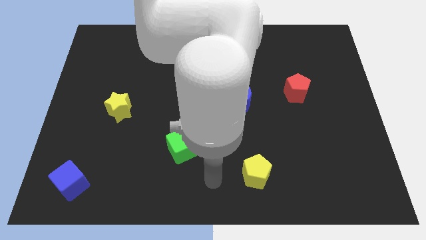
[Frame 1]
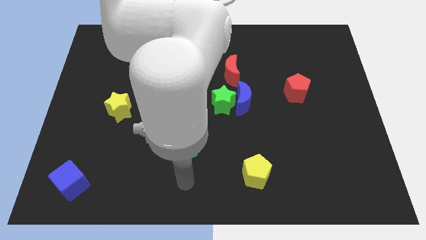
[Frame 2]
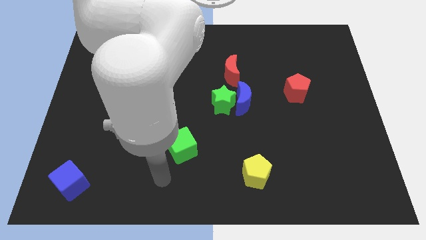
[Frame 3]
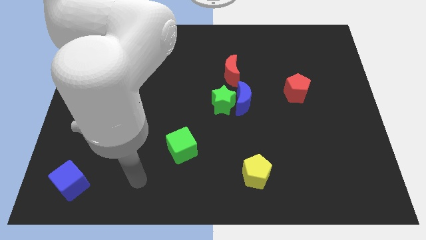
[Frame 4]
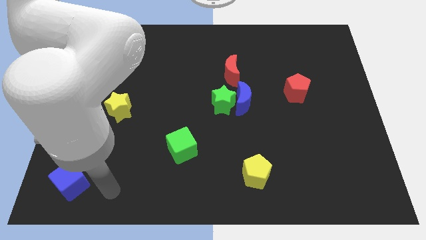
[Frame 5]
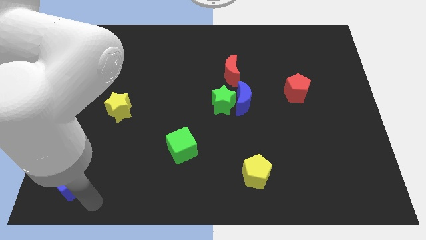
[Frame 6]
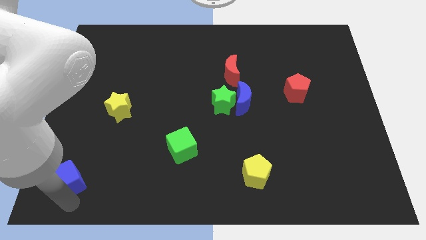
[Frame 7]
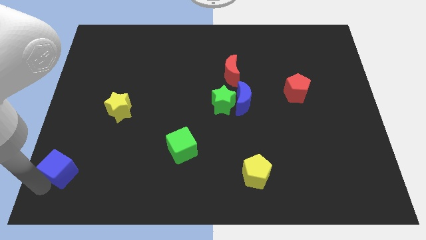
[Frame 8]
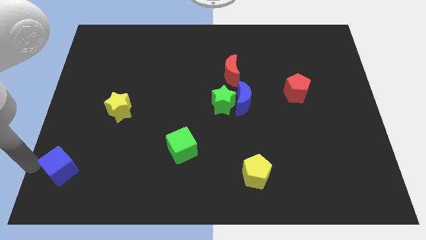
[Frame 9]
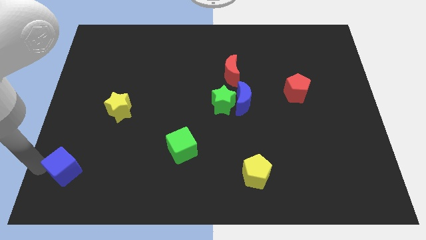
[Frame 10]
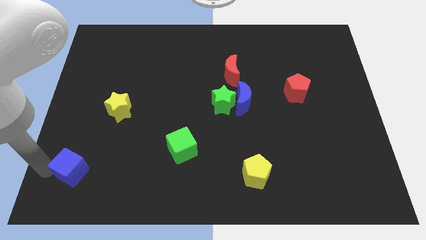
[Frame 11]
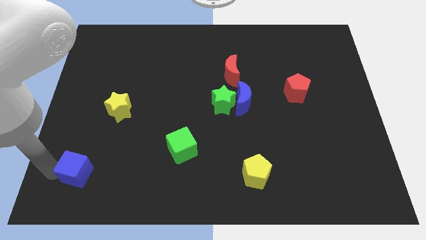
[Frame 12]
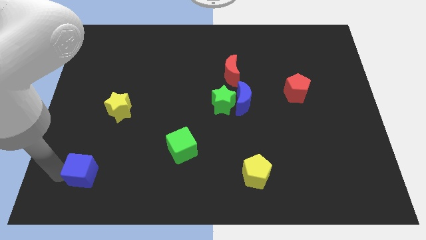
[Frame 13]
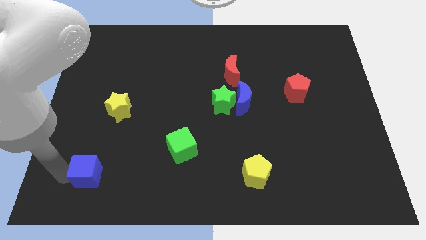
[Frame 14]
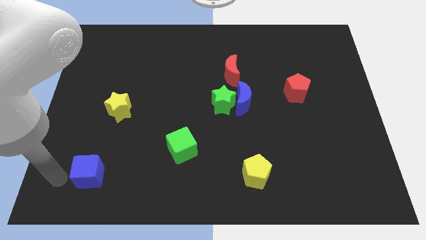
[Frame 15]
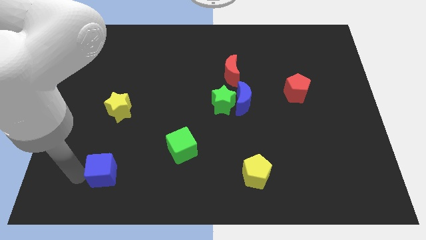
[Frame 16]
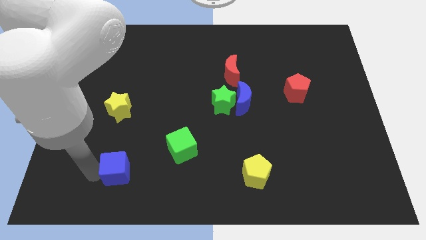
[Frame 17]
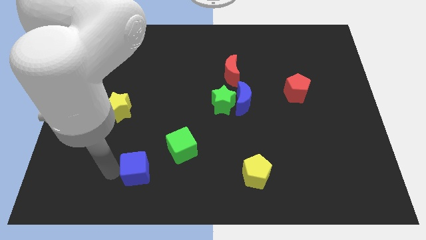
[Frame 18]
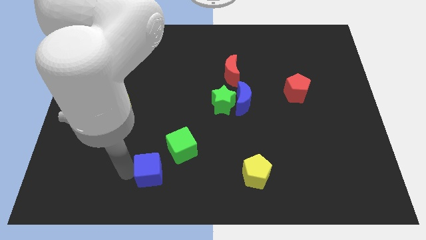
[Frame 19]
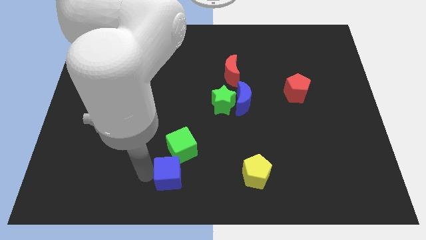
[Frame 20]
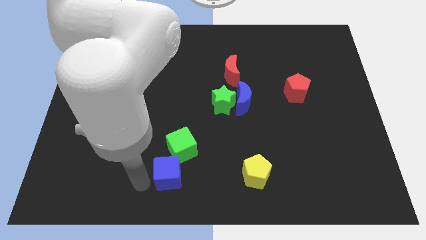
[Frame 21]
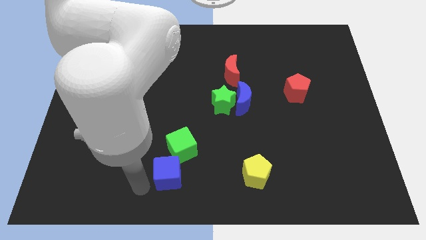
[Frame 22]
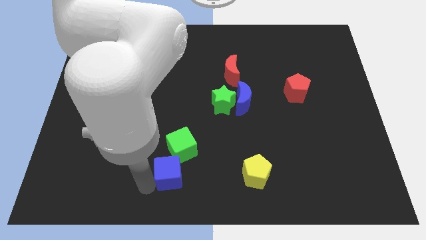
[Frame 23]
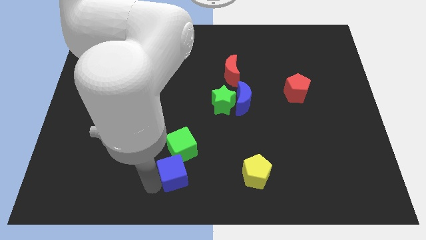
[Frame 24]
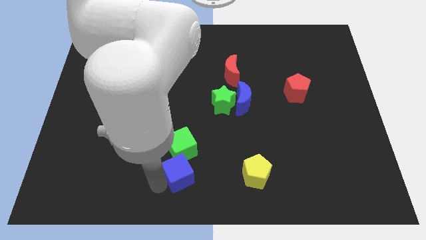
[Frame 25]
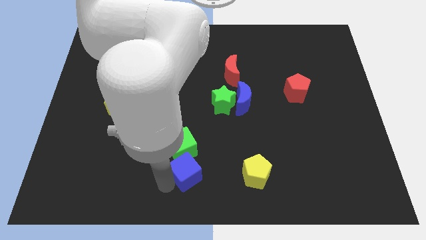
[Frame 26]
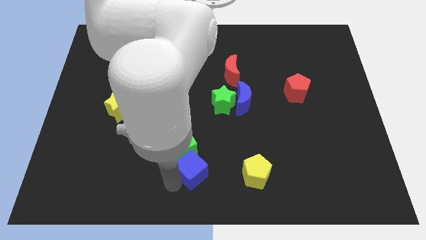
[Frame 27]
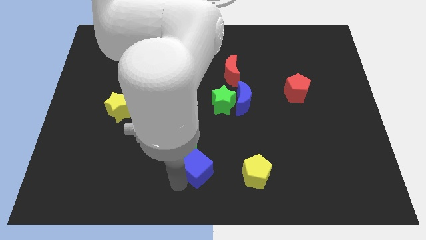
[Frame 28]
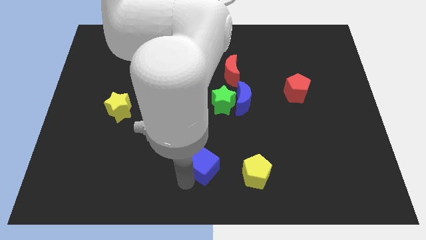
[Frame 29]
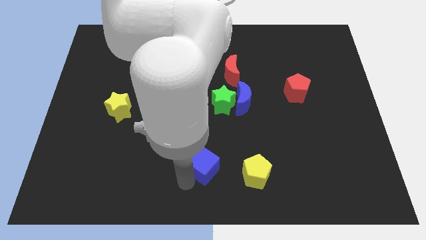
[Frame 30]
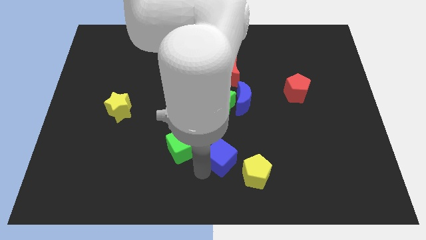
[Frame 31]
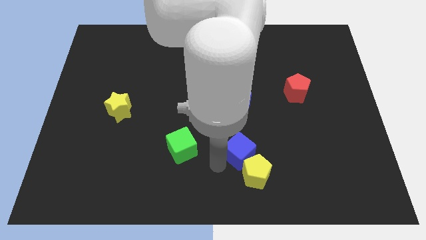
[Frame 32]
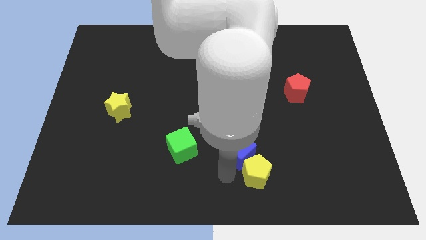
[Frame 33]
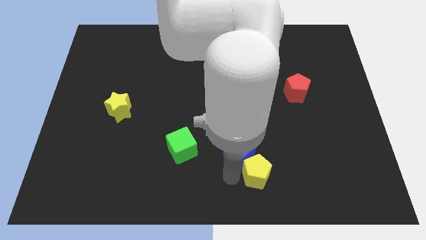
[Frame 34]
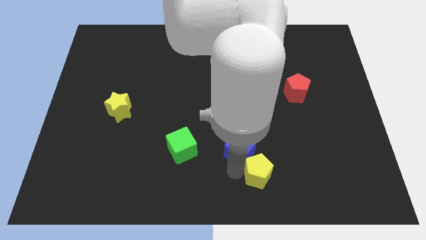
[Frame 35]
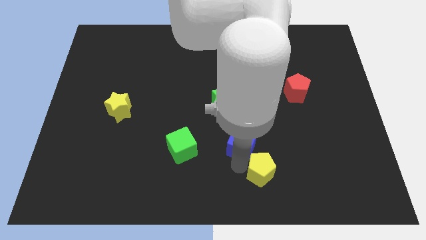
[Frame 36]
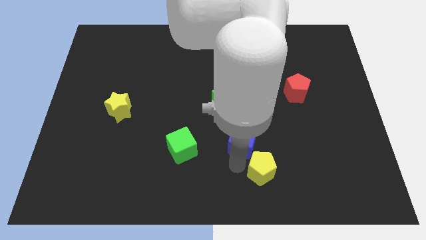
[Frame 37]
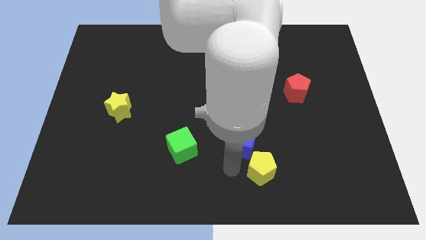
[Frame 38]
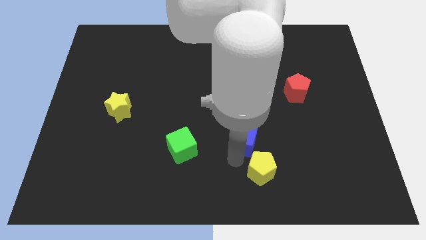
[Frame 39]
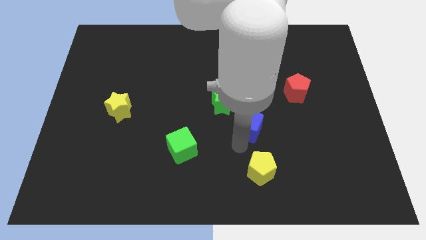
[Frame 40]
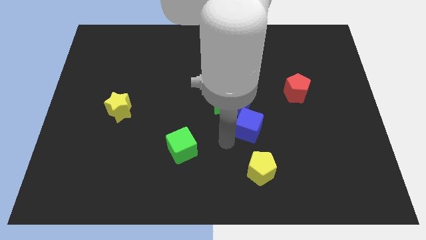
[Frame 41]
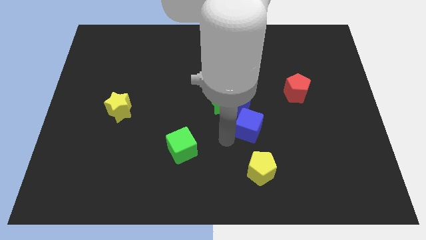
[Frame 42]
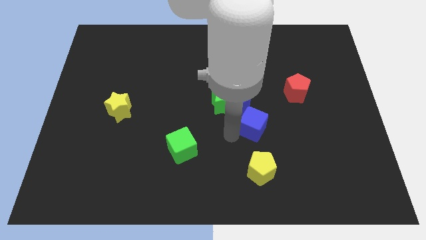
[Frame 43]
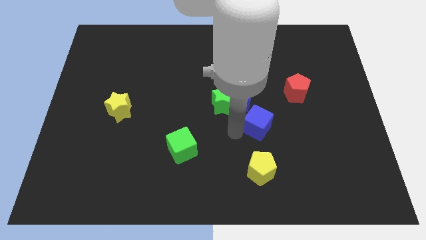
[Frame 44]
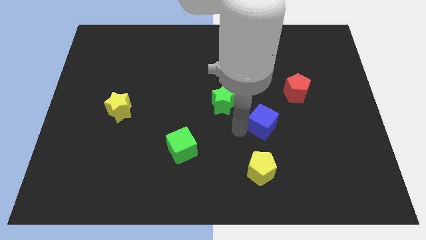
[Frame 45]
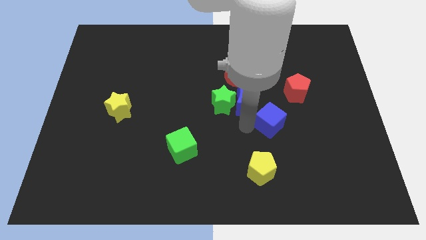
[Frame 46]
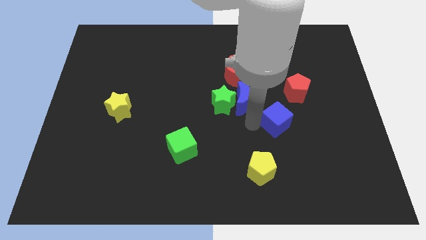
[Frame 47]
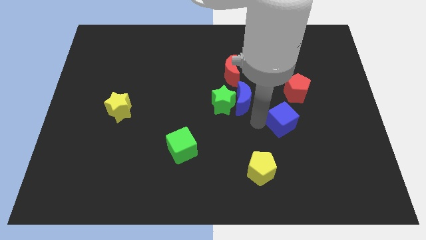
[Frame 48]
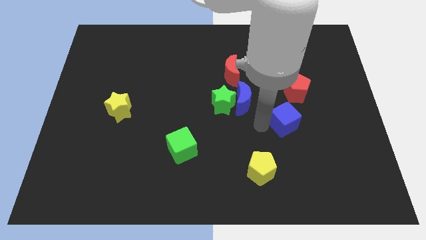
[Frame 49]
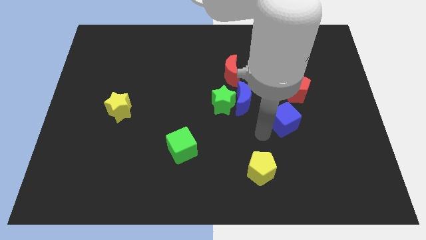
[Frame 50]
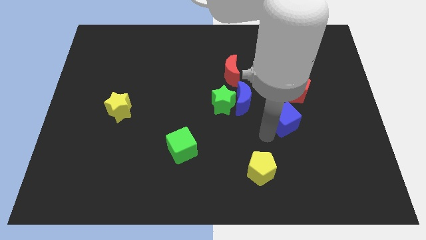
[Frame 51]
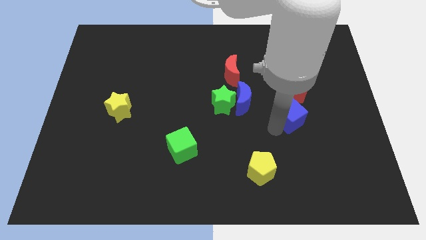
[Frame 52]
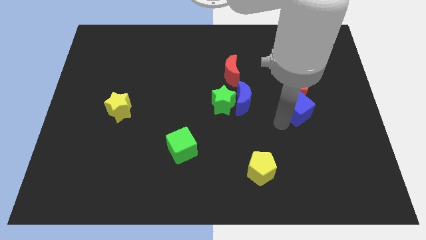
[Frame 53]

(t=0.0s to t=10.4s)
push the blue cube diagonally down and to the right of the red pentagon

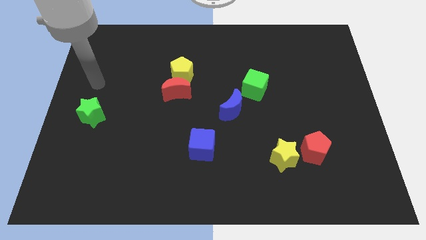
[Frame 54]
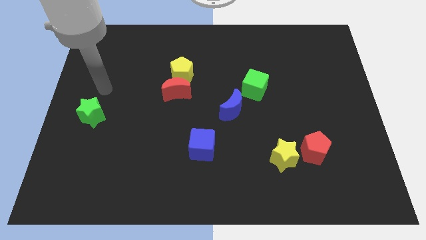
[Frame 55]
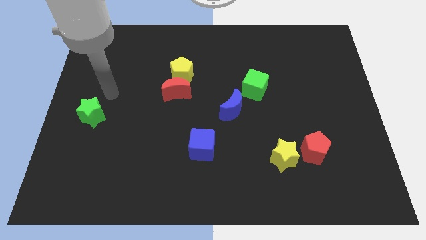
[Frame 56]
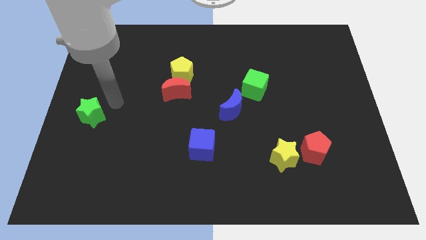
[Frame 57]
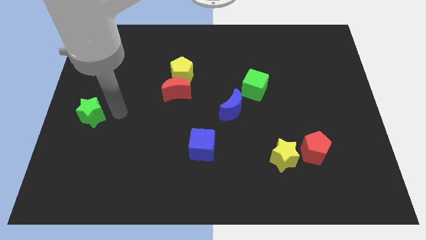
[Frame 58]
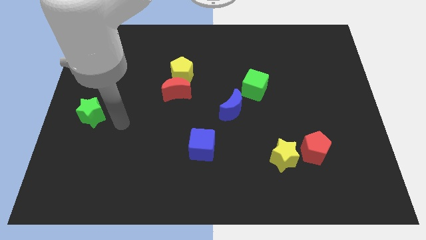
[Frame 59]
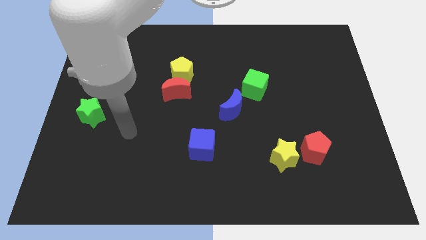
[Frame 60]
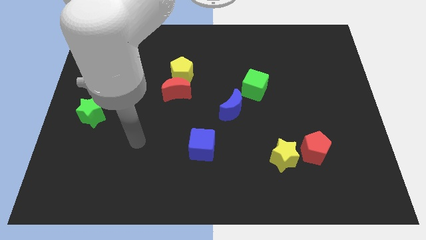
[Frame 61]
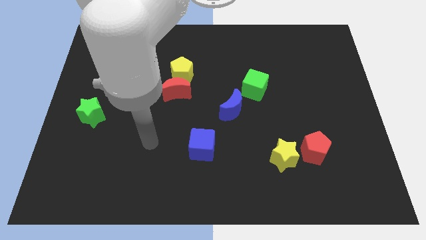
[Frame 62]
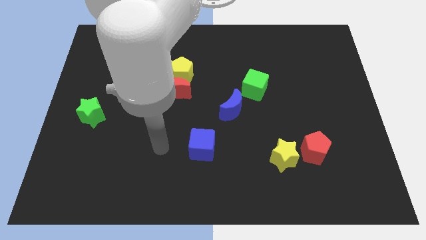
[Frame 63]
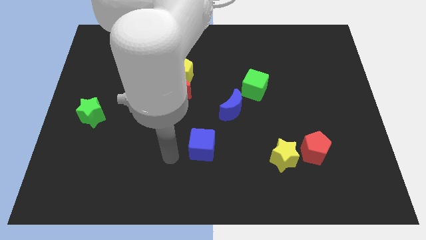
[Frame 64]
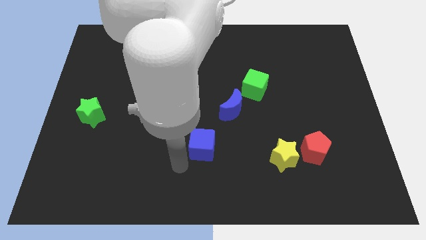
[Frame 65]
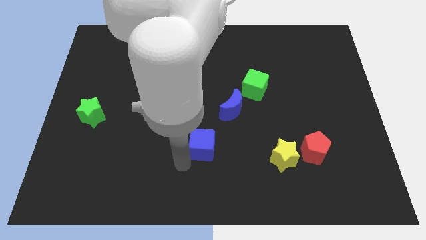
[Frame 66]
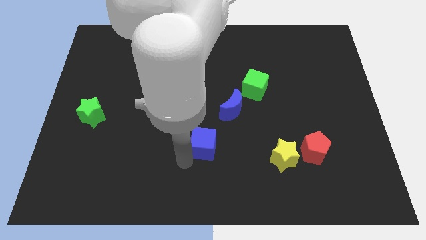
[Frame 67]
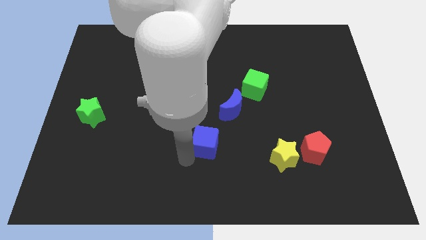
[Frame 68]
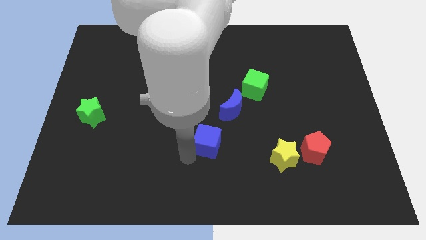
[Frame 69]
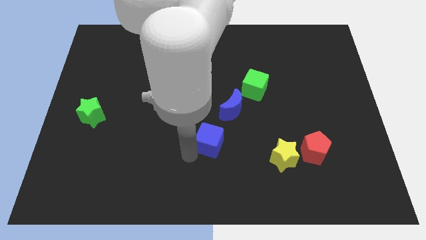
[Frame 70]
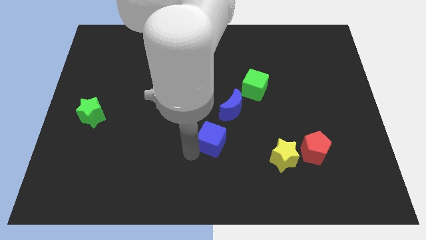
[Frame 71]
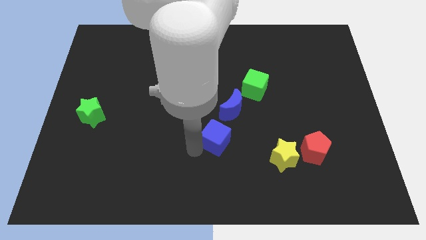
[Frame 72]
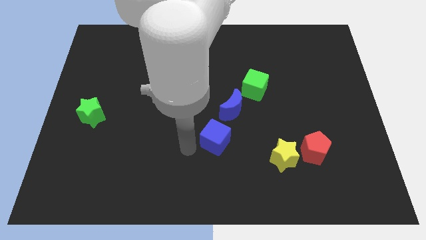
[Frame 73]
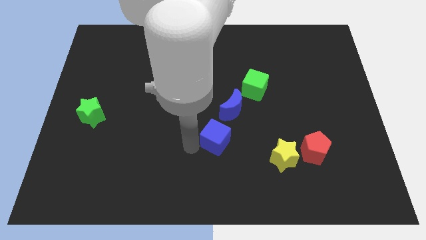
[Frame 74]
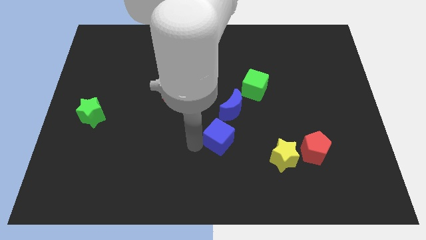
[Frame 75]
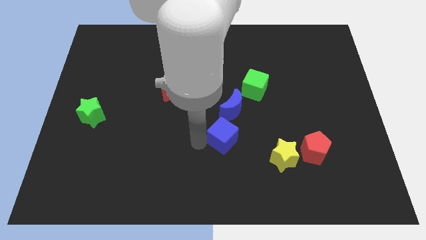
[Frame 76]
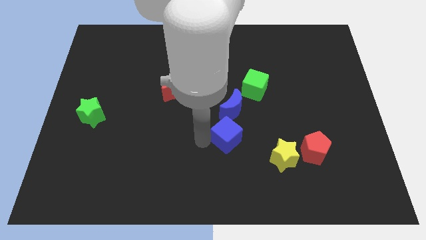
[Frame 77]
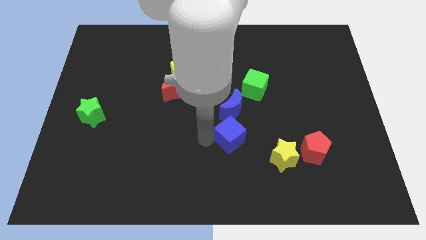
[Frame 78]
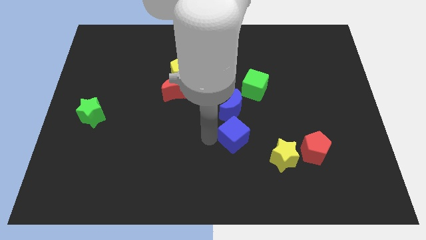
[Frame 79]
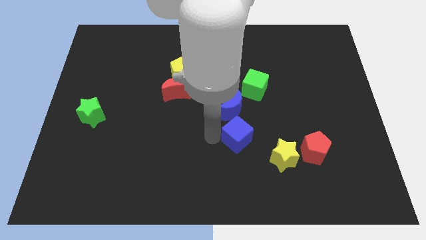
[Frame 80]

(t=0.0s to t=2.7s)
put the blue cube to the bottom right side of the blue moon

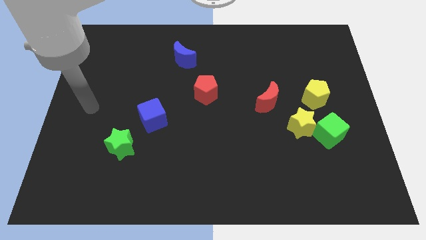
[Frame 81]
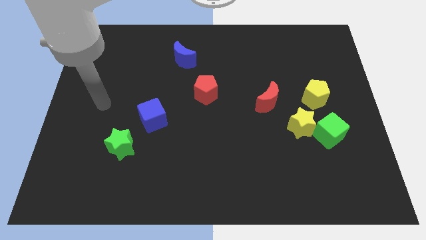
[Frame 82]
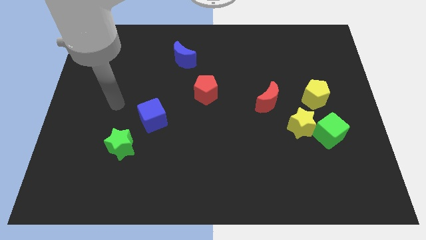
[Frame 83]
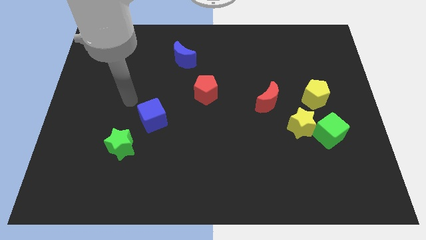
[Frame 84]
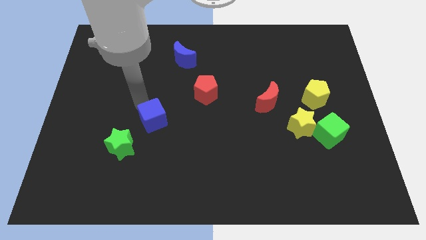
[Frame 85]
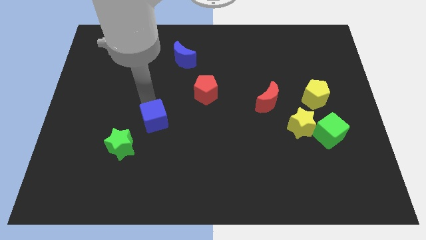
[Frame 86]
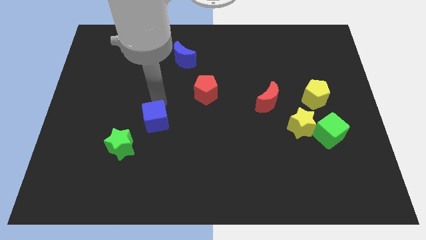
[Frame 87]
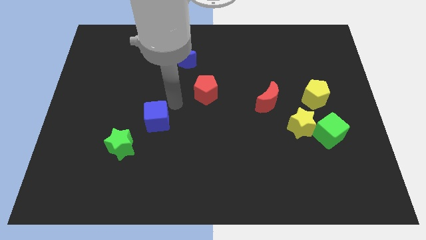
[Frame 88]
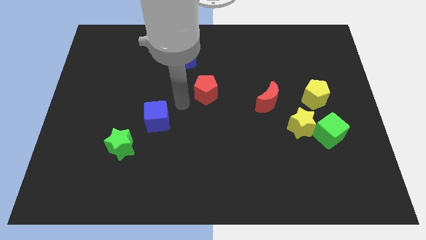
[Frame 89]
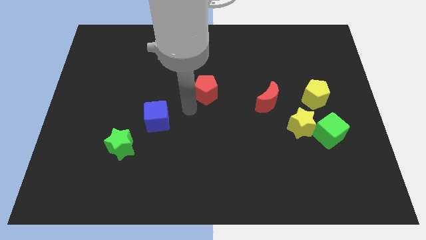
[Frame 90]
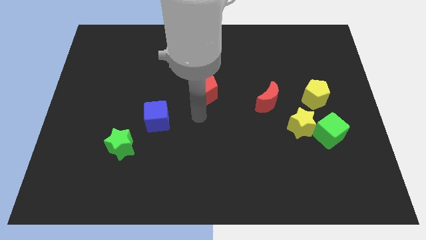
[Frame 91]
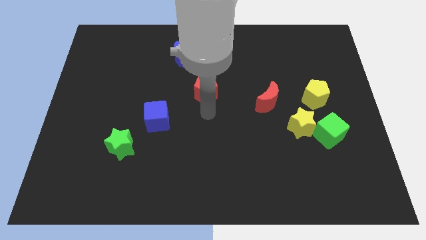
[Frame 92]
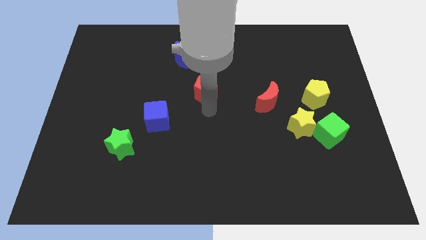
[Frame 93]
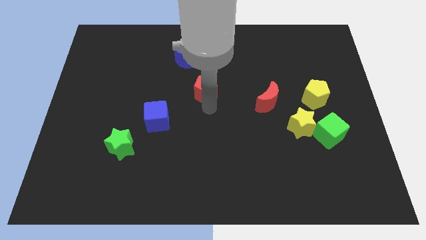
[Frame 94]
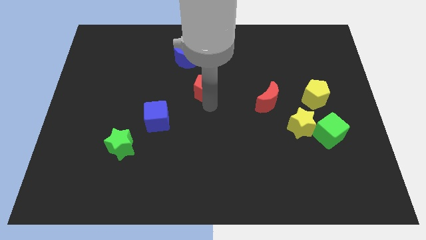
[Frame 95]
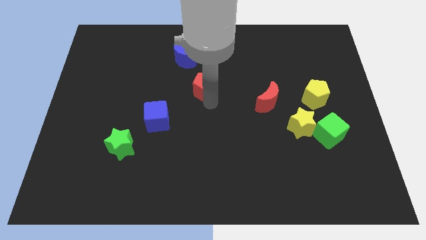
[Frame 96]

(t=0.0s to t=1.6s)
push the red pentagon to the bottom right side of the blue moon
